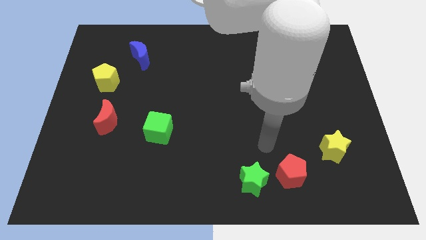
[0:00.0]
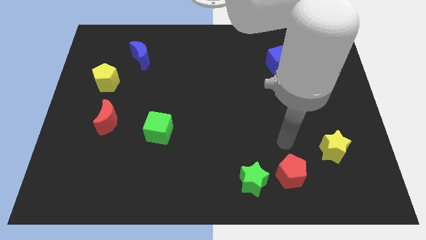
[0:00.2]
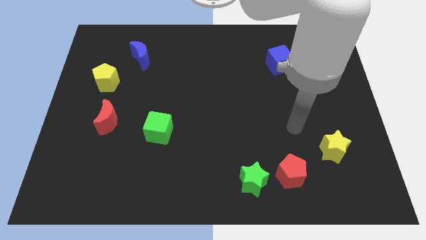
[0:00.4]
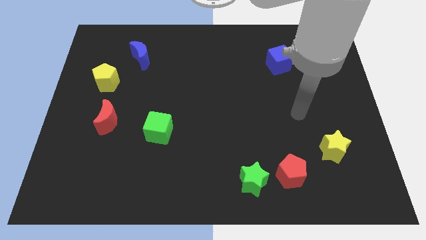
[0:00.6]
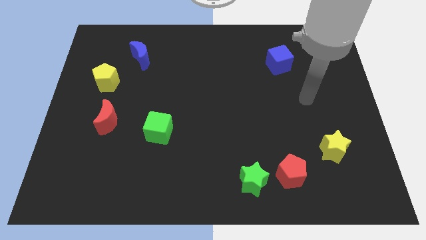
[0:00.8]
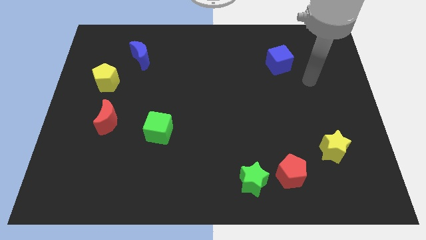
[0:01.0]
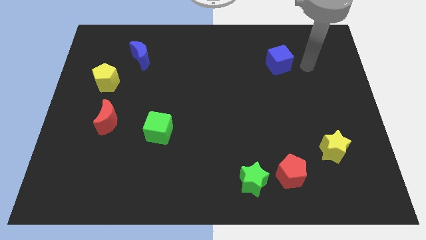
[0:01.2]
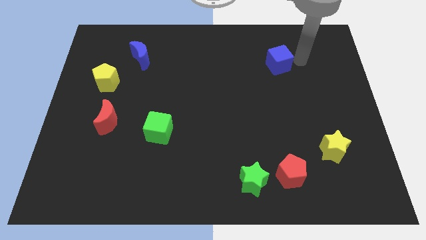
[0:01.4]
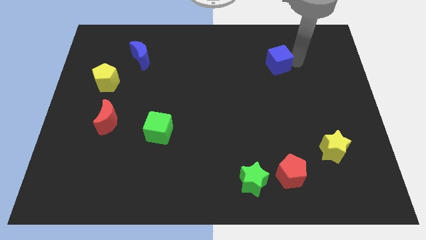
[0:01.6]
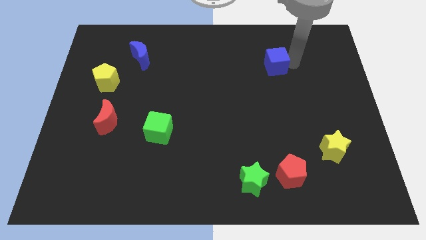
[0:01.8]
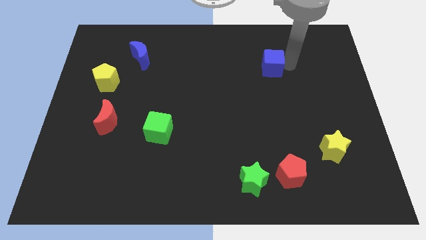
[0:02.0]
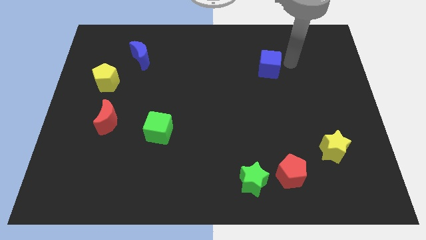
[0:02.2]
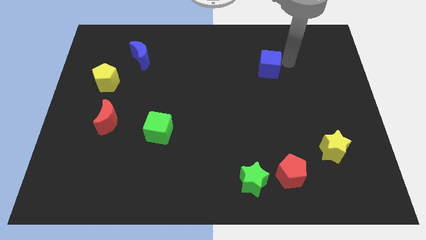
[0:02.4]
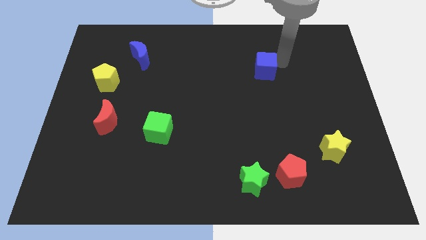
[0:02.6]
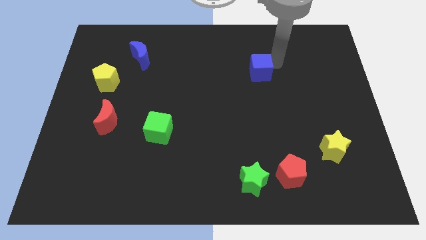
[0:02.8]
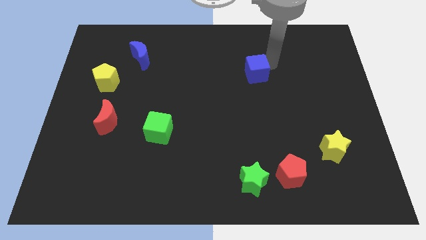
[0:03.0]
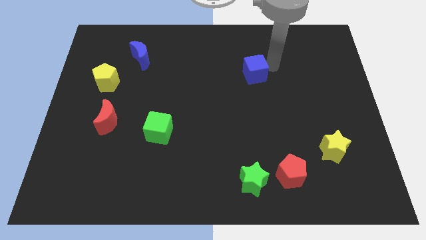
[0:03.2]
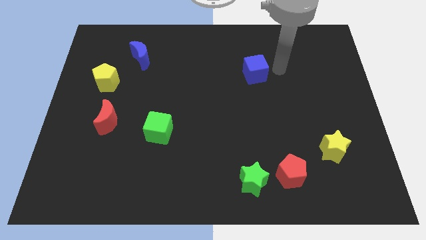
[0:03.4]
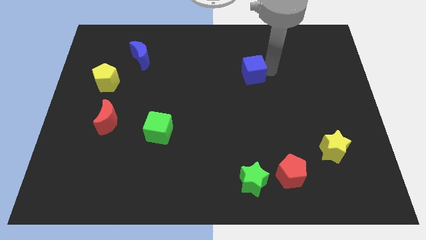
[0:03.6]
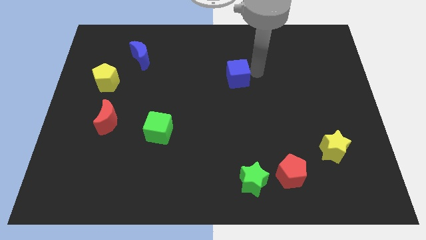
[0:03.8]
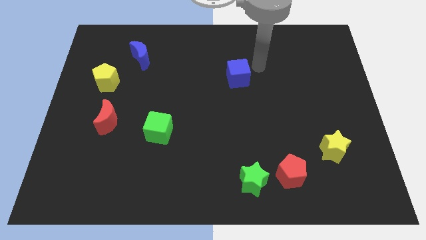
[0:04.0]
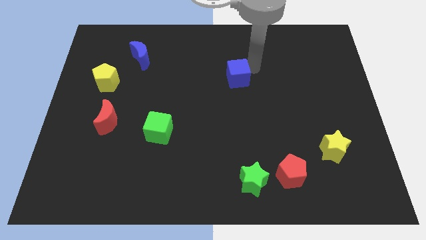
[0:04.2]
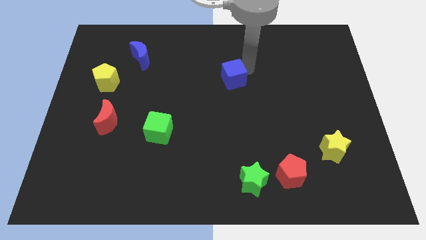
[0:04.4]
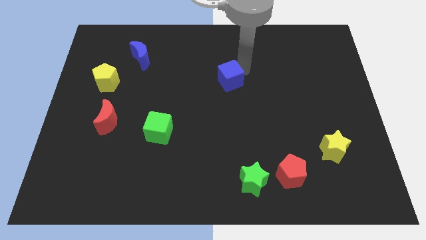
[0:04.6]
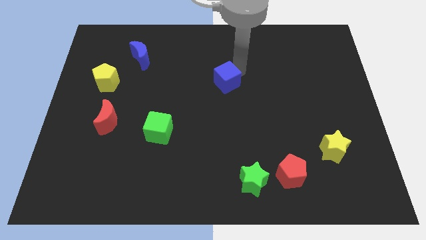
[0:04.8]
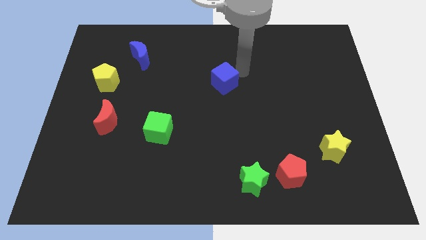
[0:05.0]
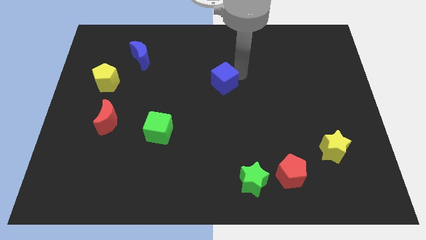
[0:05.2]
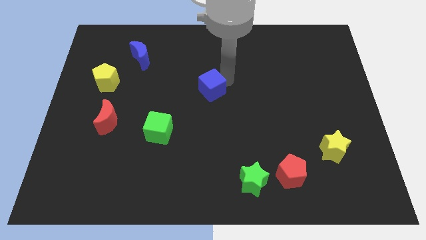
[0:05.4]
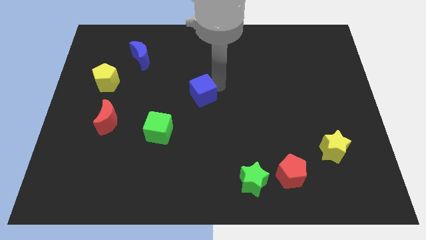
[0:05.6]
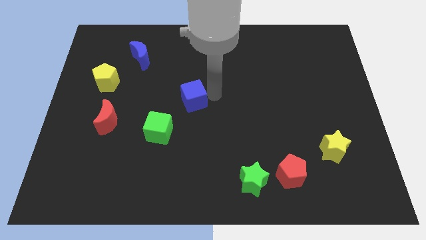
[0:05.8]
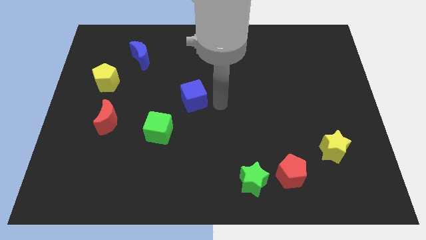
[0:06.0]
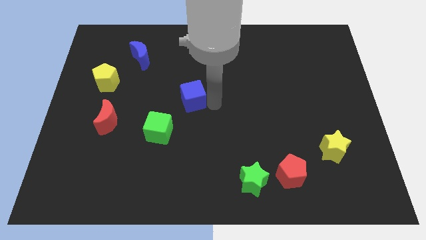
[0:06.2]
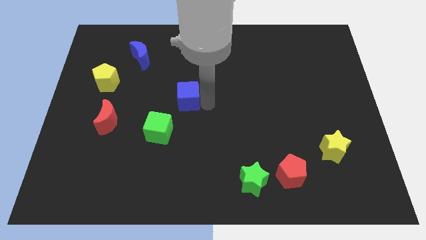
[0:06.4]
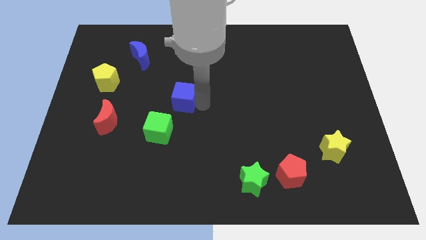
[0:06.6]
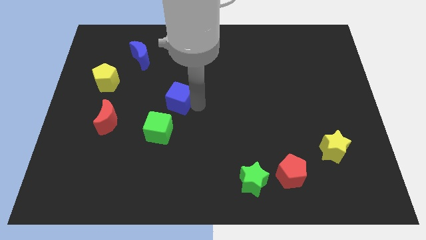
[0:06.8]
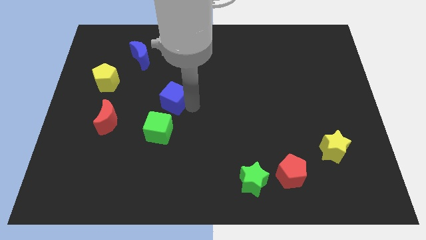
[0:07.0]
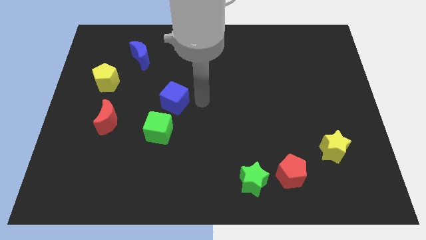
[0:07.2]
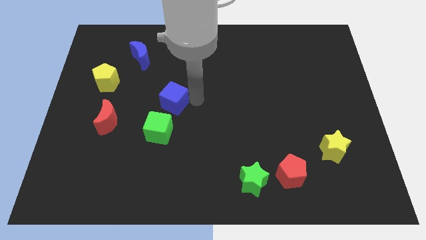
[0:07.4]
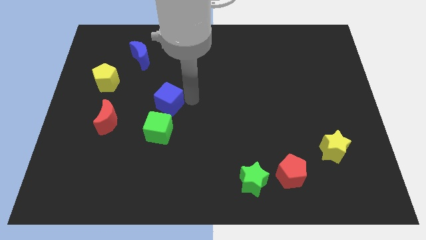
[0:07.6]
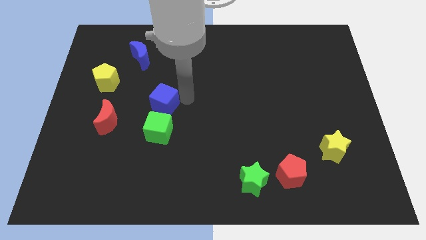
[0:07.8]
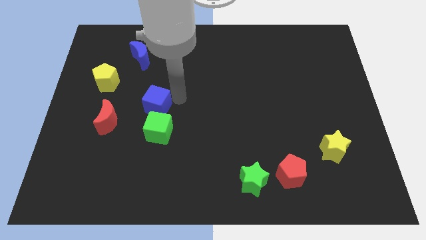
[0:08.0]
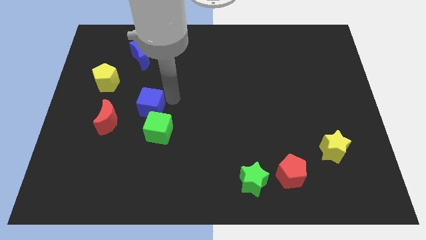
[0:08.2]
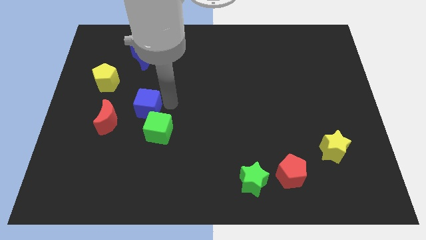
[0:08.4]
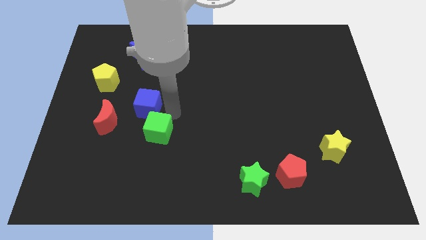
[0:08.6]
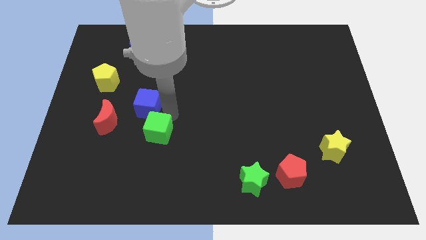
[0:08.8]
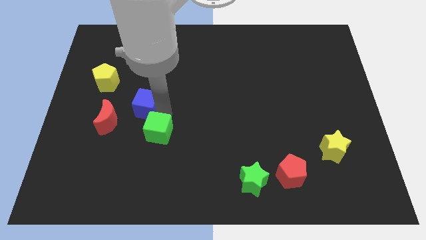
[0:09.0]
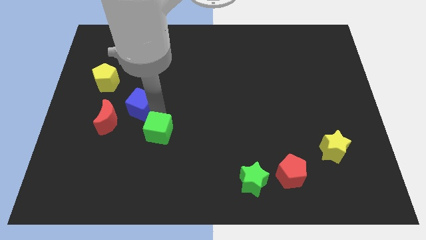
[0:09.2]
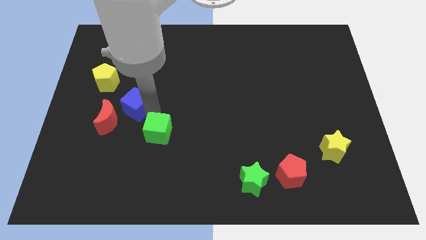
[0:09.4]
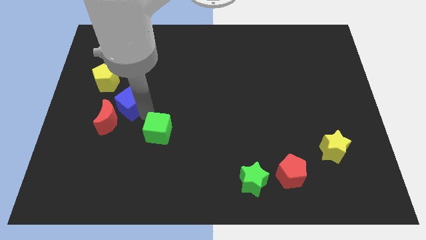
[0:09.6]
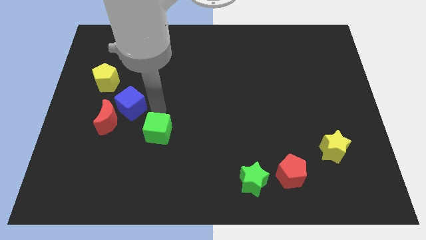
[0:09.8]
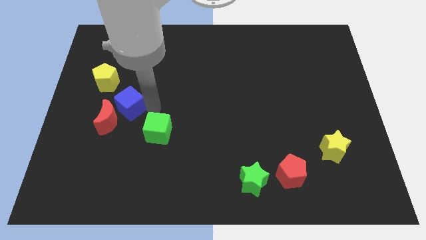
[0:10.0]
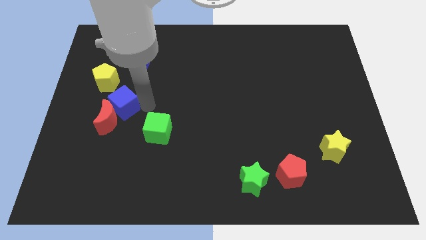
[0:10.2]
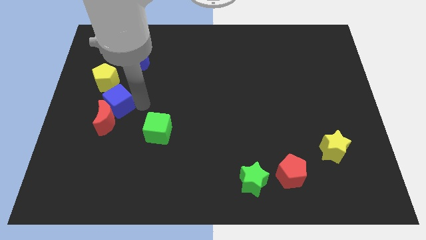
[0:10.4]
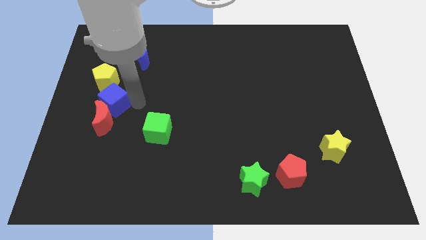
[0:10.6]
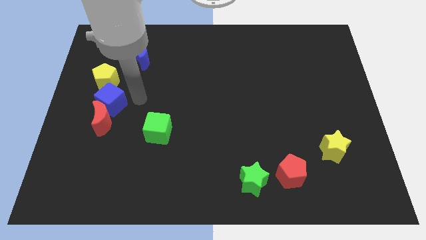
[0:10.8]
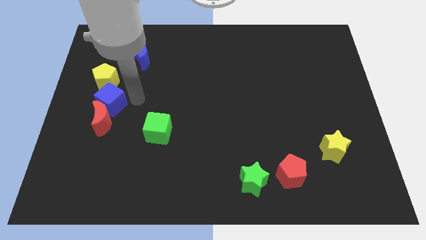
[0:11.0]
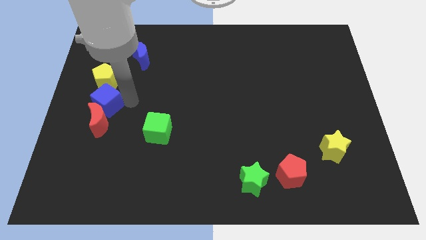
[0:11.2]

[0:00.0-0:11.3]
push the blue cube to the left side
